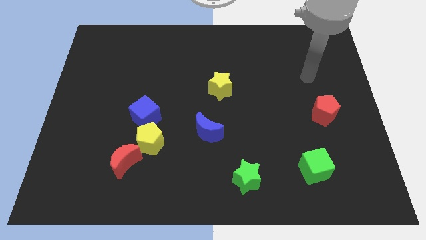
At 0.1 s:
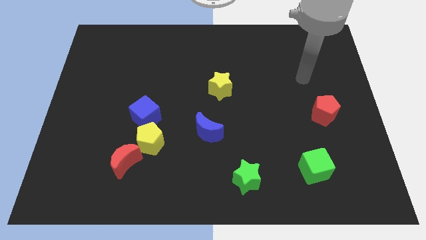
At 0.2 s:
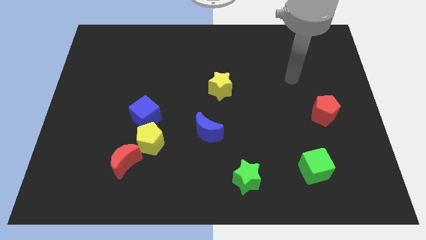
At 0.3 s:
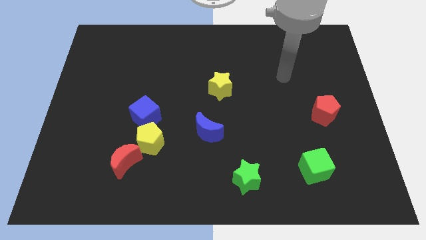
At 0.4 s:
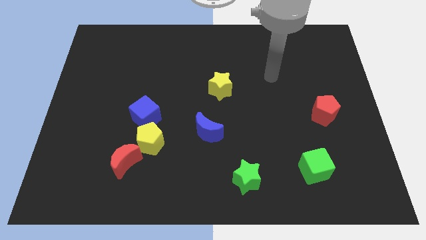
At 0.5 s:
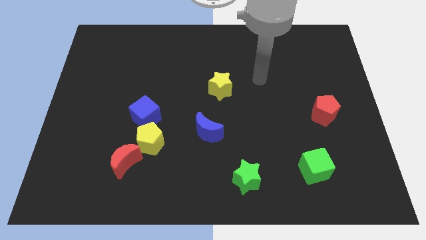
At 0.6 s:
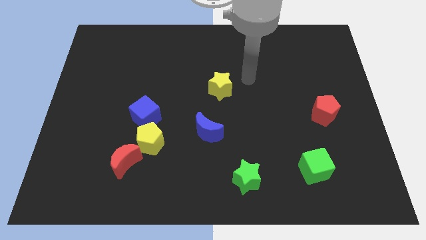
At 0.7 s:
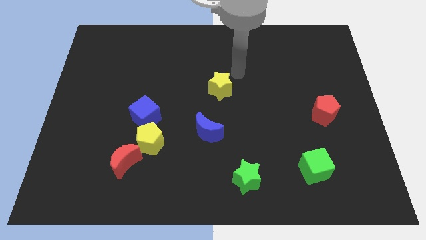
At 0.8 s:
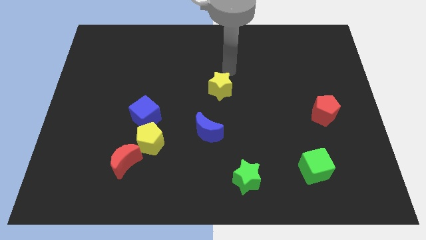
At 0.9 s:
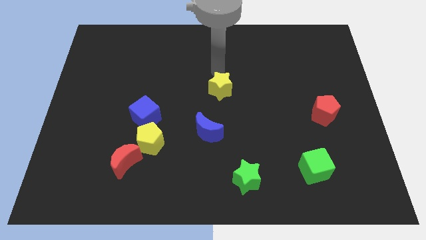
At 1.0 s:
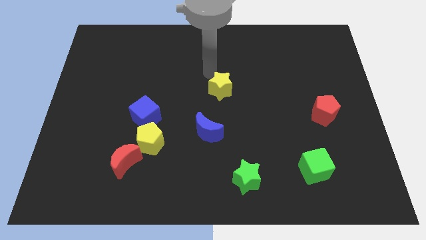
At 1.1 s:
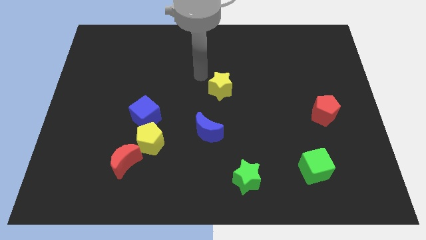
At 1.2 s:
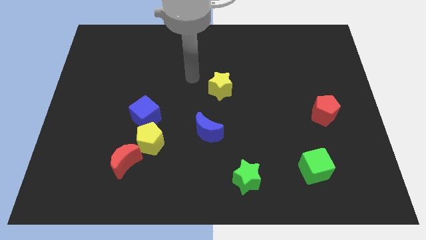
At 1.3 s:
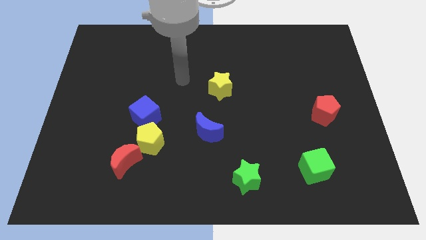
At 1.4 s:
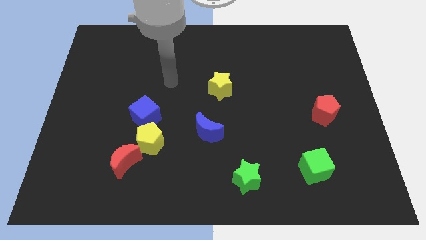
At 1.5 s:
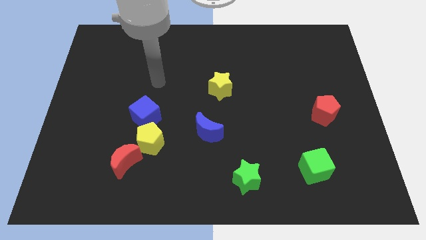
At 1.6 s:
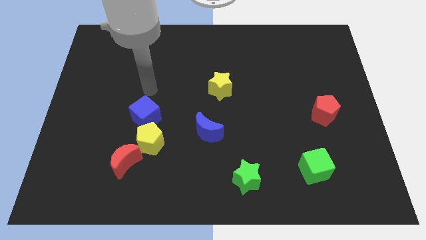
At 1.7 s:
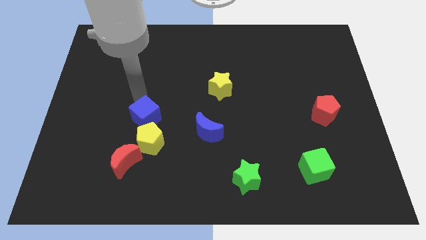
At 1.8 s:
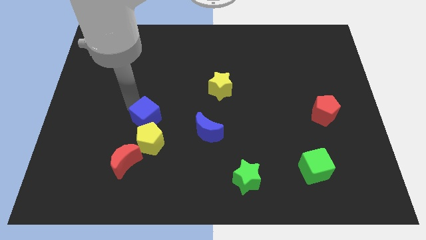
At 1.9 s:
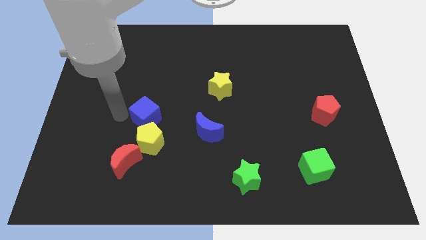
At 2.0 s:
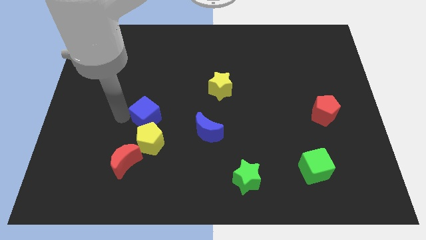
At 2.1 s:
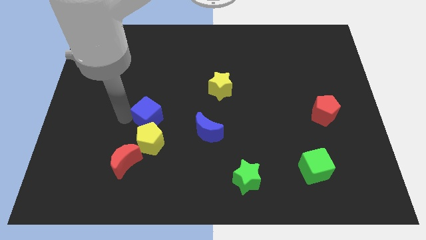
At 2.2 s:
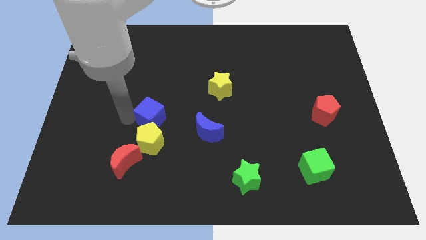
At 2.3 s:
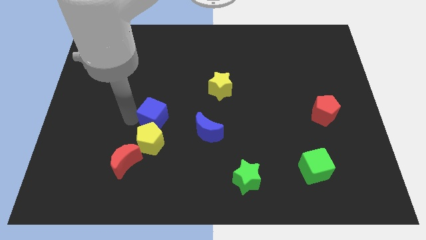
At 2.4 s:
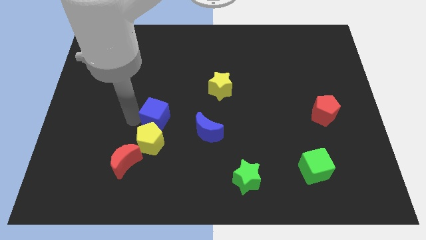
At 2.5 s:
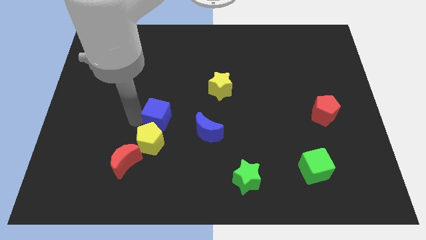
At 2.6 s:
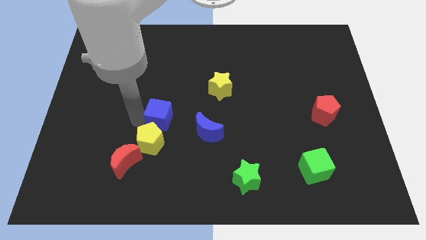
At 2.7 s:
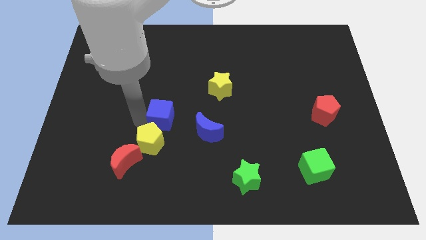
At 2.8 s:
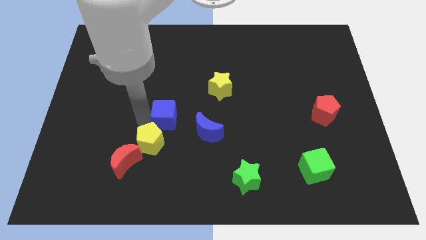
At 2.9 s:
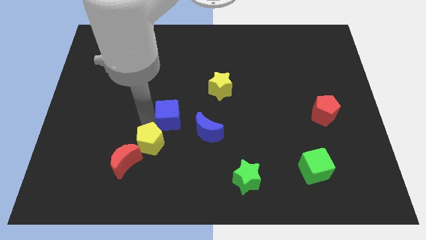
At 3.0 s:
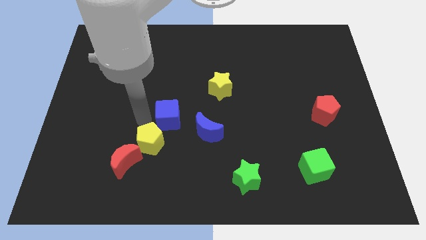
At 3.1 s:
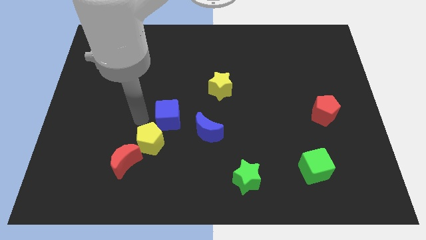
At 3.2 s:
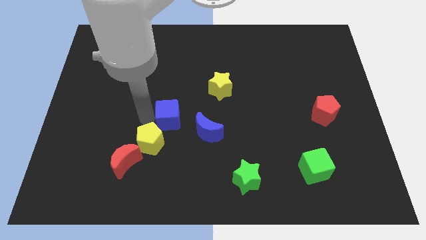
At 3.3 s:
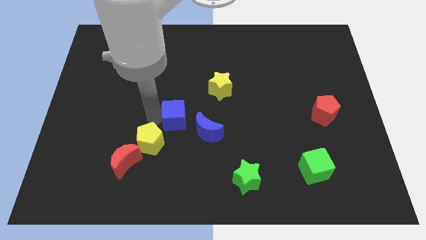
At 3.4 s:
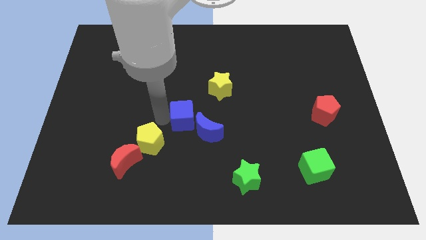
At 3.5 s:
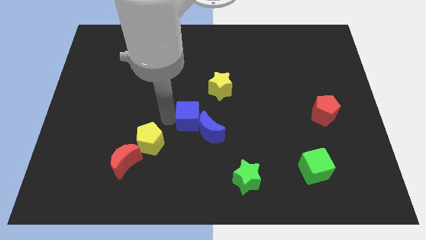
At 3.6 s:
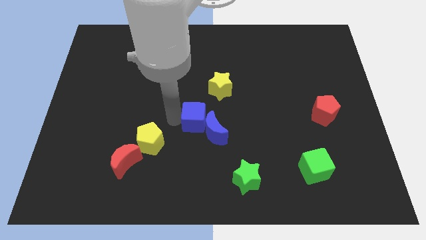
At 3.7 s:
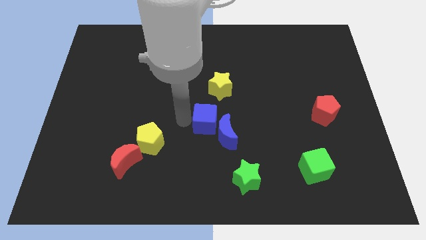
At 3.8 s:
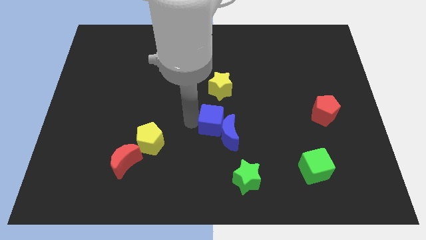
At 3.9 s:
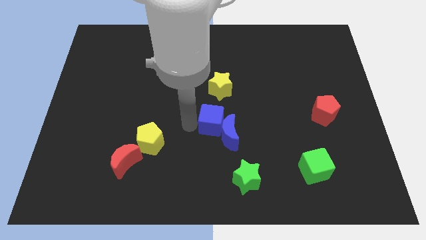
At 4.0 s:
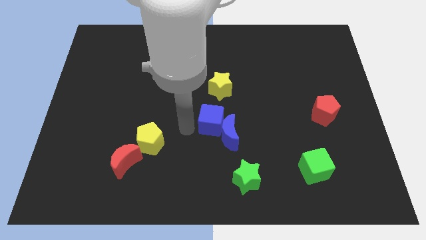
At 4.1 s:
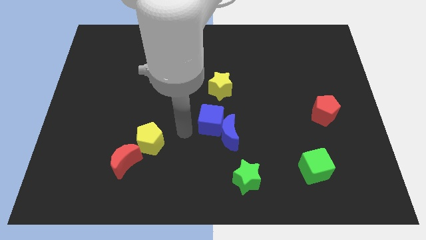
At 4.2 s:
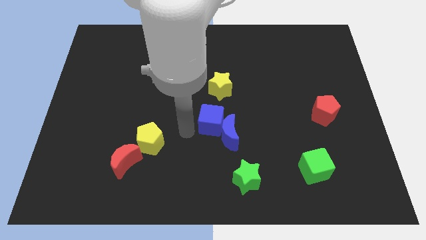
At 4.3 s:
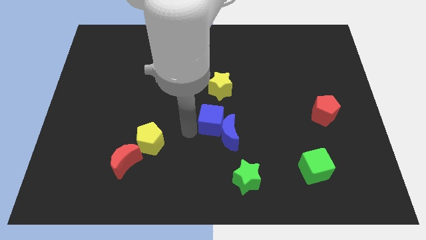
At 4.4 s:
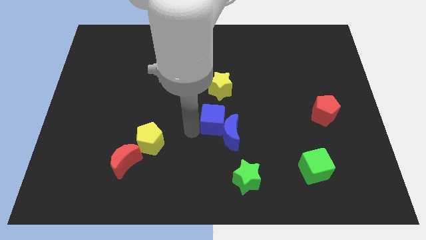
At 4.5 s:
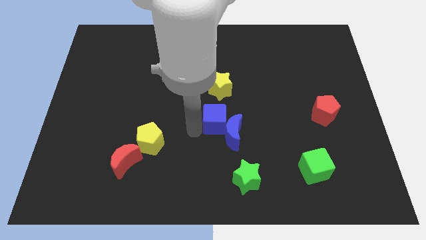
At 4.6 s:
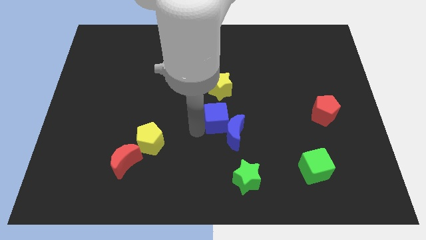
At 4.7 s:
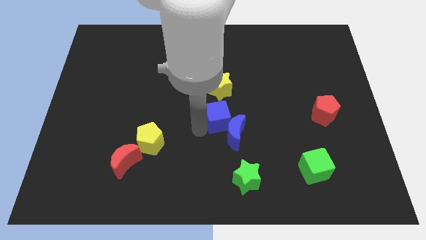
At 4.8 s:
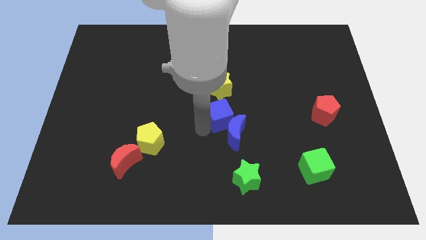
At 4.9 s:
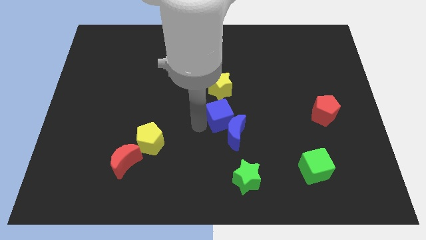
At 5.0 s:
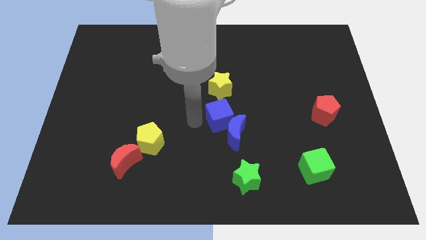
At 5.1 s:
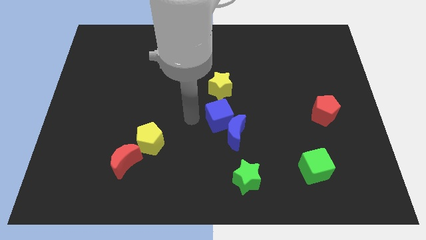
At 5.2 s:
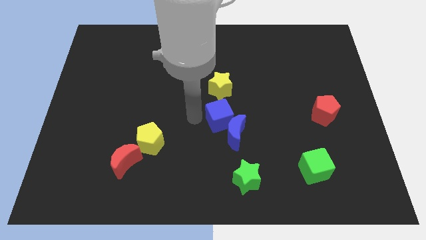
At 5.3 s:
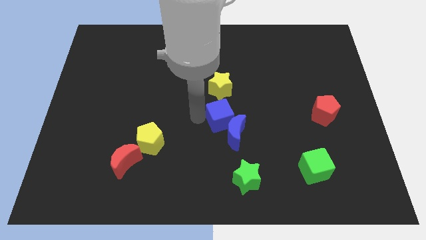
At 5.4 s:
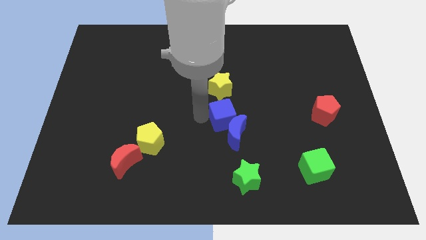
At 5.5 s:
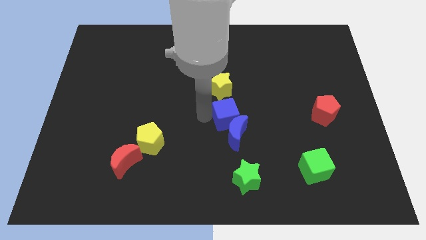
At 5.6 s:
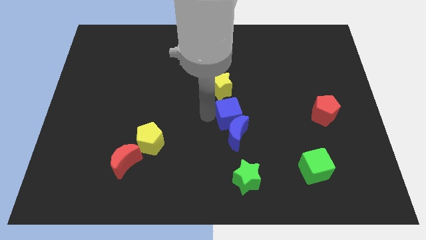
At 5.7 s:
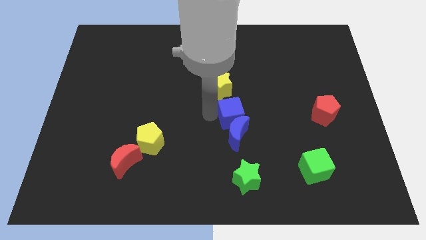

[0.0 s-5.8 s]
slide the blue cube right

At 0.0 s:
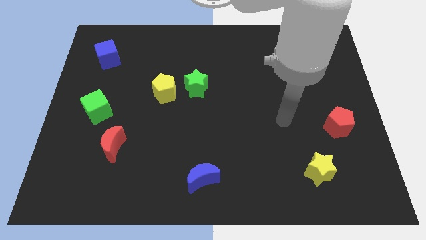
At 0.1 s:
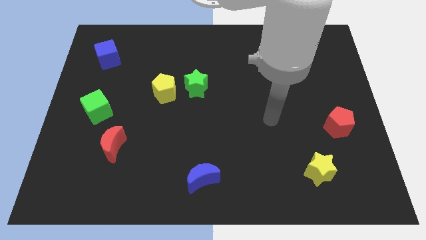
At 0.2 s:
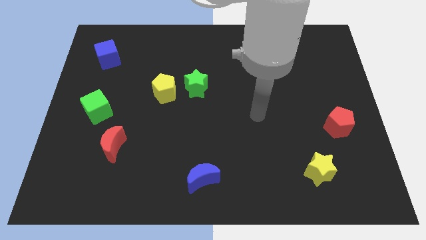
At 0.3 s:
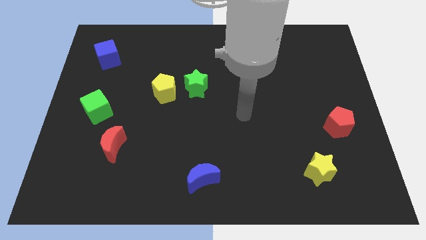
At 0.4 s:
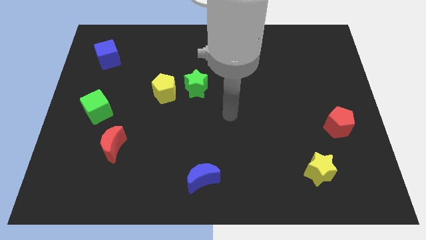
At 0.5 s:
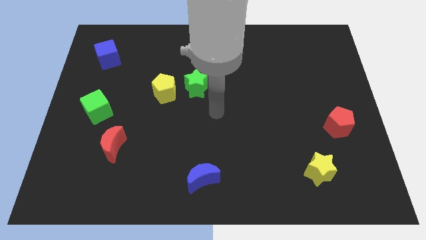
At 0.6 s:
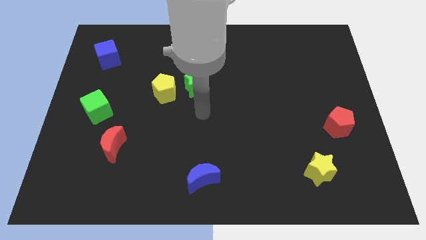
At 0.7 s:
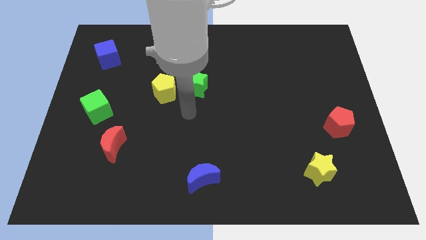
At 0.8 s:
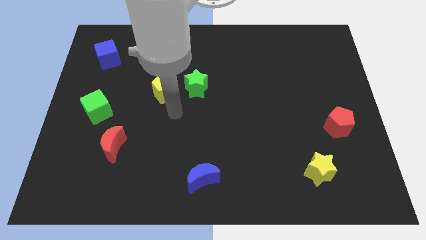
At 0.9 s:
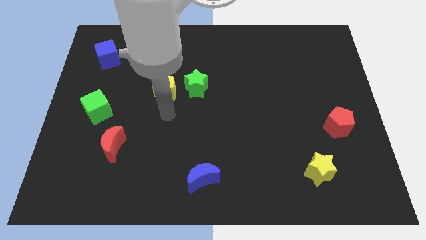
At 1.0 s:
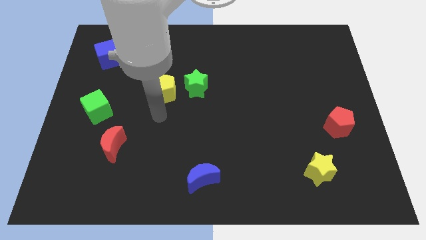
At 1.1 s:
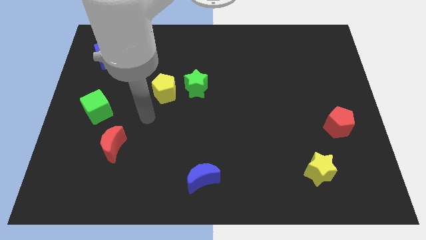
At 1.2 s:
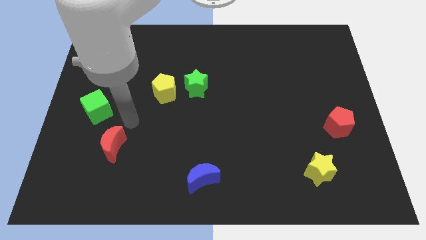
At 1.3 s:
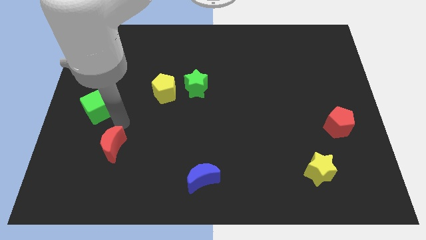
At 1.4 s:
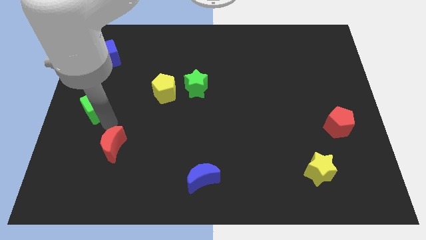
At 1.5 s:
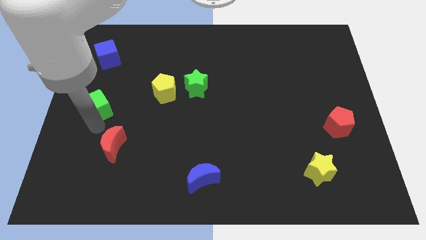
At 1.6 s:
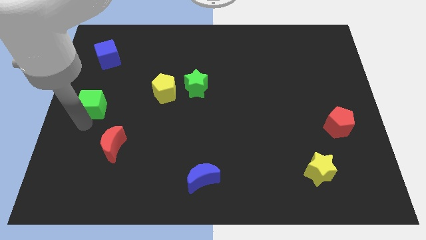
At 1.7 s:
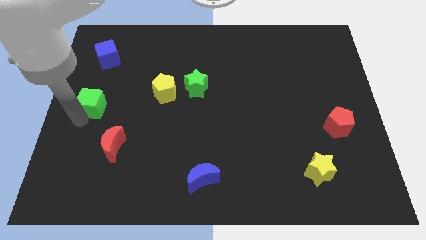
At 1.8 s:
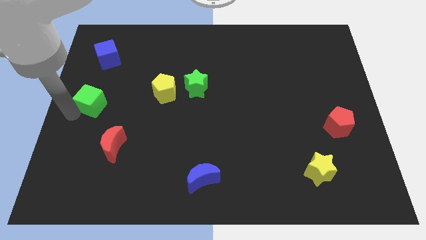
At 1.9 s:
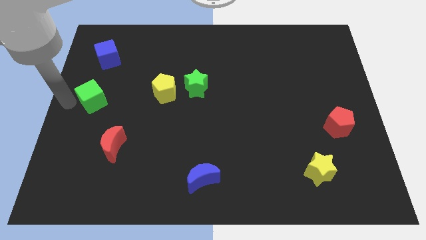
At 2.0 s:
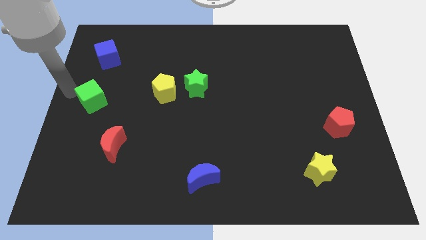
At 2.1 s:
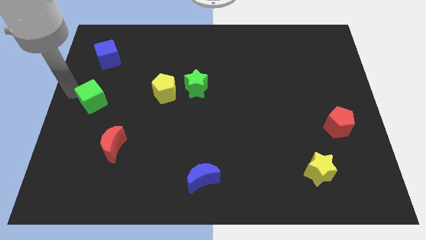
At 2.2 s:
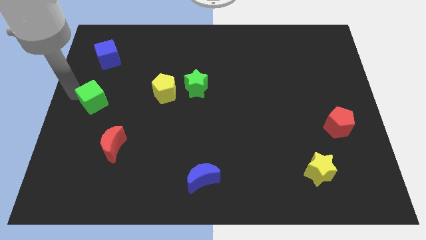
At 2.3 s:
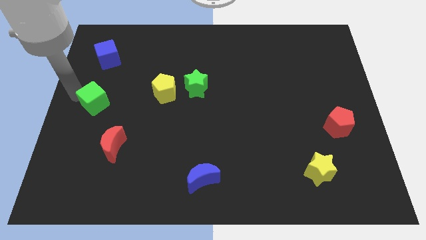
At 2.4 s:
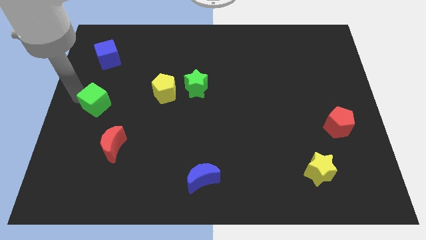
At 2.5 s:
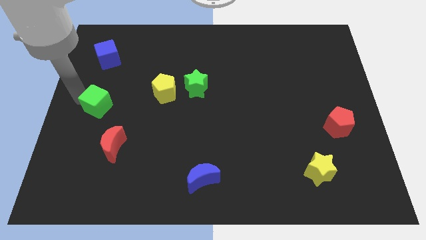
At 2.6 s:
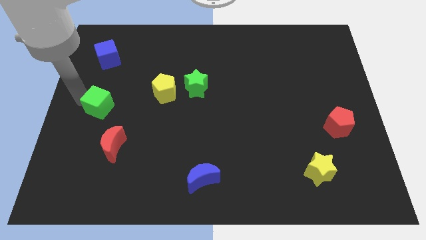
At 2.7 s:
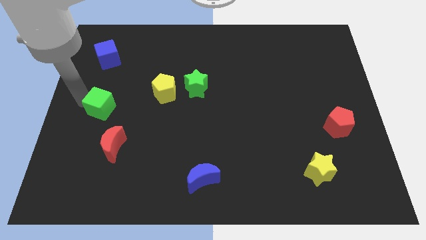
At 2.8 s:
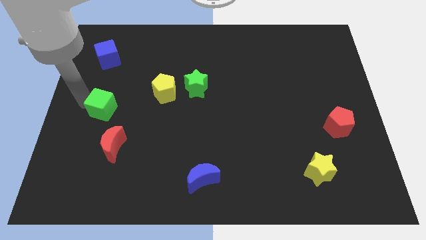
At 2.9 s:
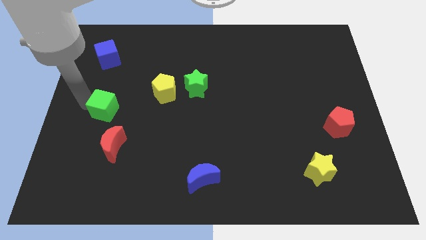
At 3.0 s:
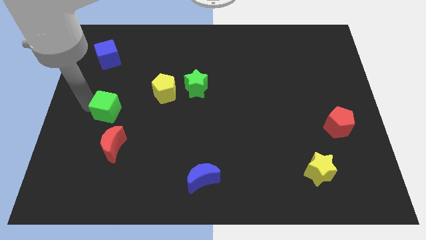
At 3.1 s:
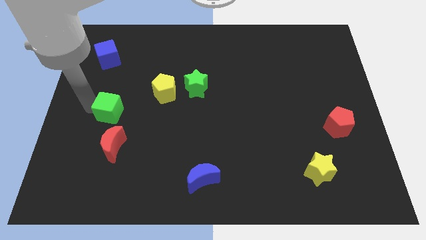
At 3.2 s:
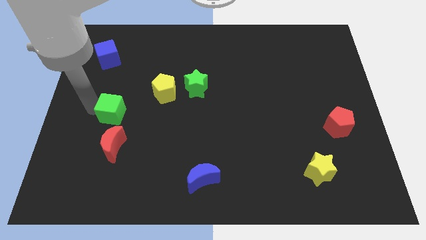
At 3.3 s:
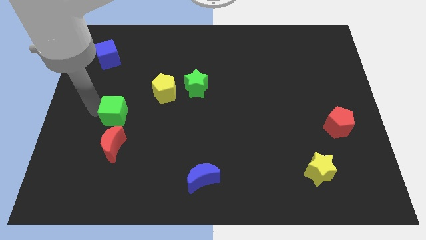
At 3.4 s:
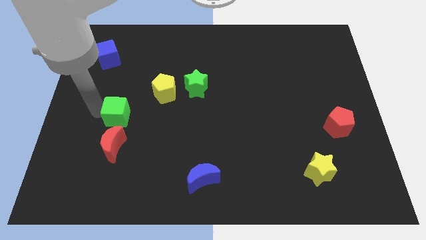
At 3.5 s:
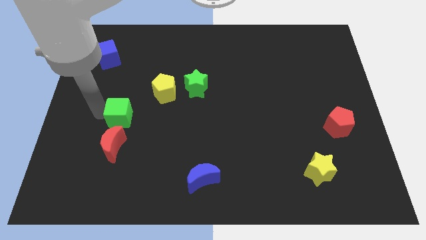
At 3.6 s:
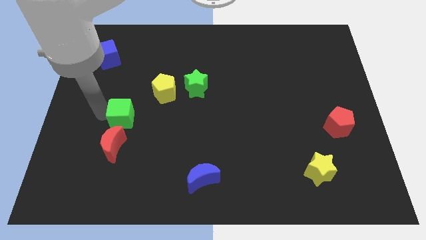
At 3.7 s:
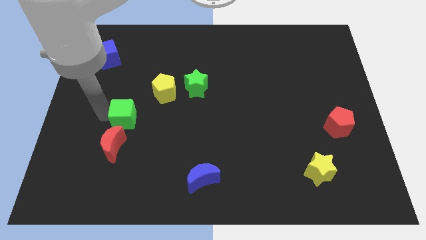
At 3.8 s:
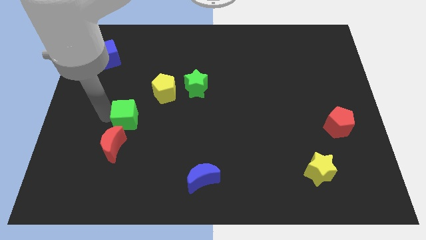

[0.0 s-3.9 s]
slide the green cube a little bit right
